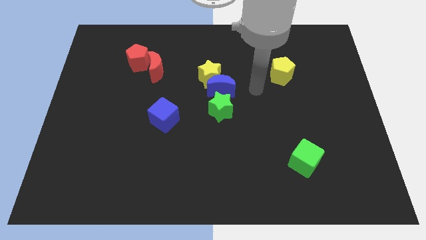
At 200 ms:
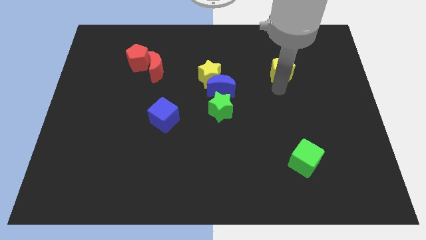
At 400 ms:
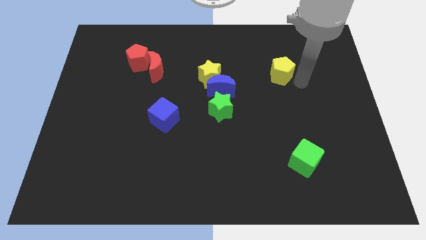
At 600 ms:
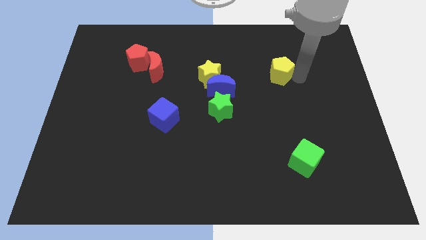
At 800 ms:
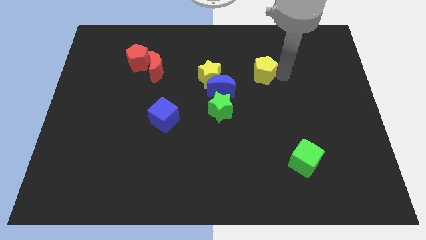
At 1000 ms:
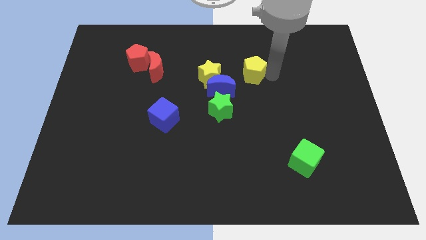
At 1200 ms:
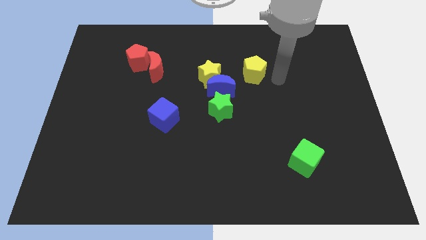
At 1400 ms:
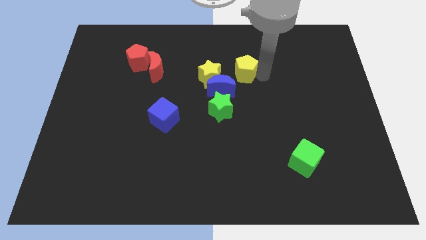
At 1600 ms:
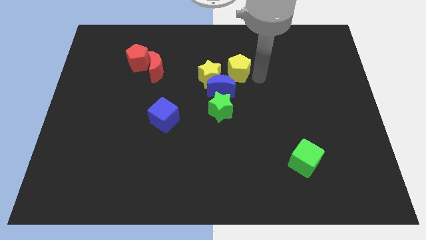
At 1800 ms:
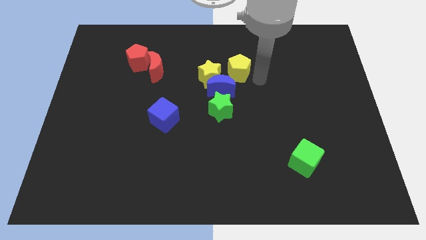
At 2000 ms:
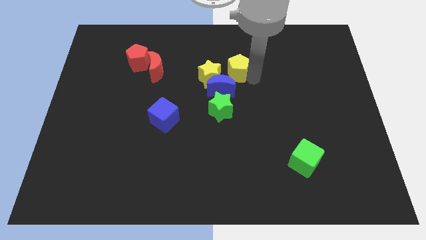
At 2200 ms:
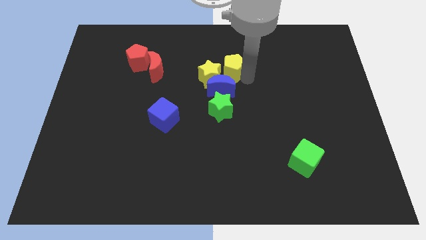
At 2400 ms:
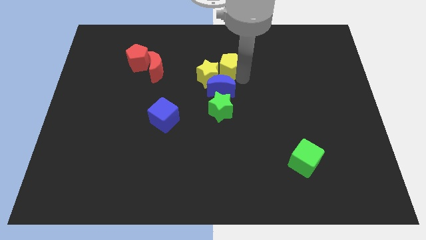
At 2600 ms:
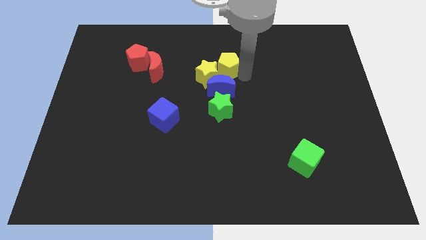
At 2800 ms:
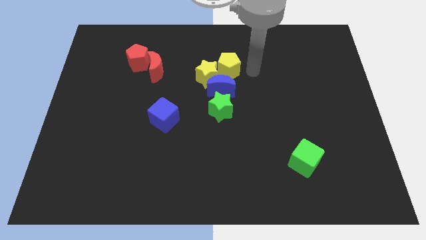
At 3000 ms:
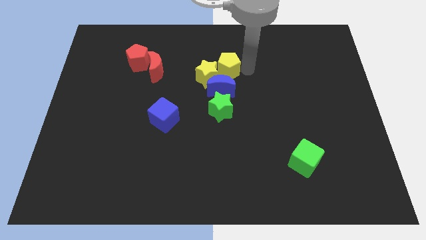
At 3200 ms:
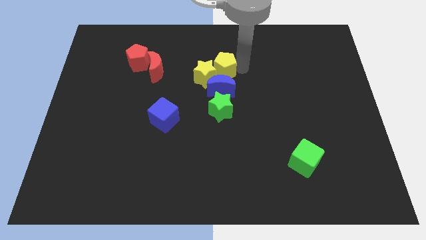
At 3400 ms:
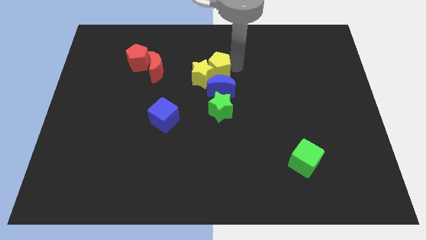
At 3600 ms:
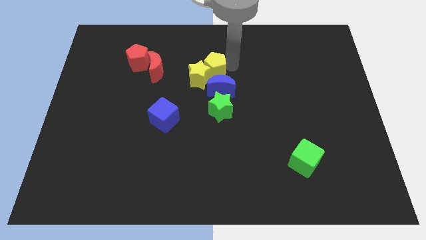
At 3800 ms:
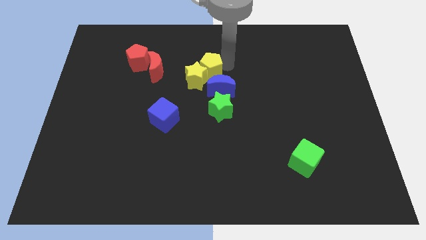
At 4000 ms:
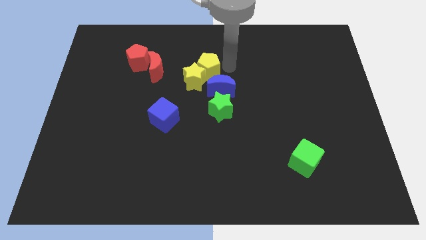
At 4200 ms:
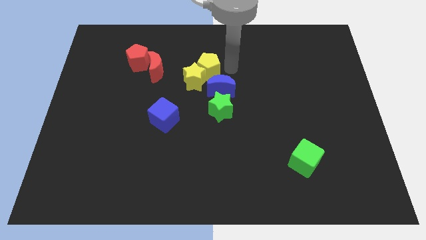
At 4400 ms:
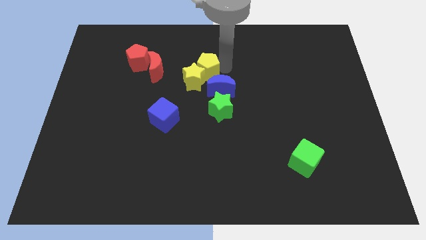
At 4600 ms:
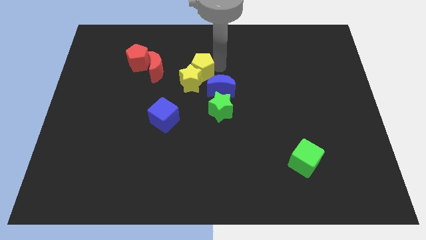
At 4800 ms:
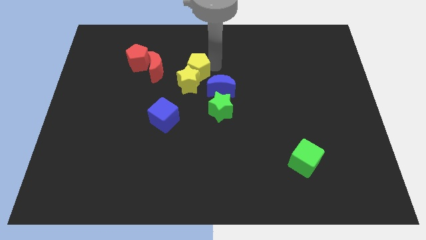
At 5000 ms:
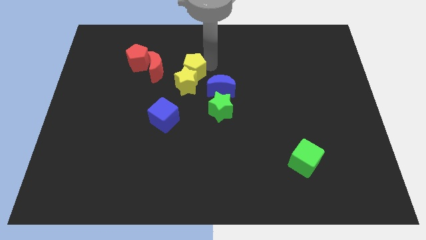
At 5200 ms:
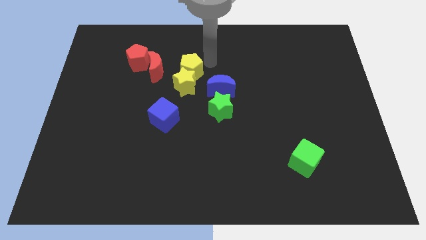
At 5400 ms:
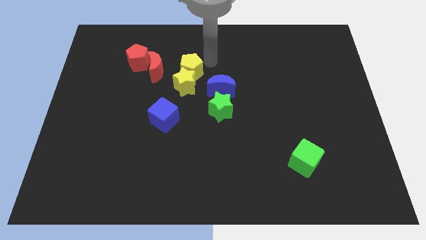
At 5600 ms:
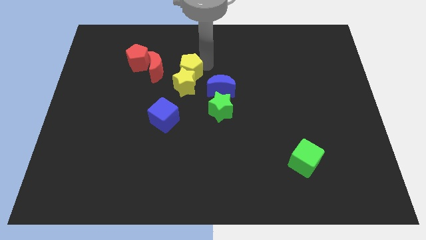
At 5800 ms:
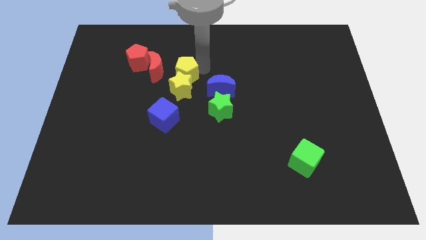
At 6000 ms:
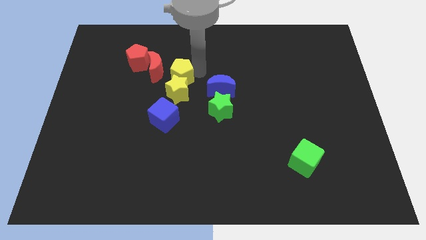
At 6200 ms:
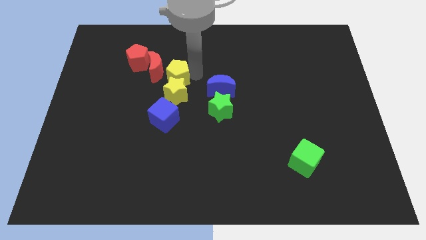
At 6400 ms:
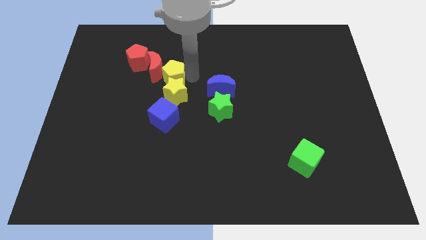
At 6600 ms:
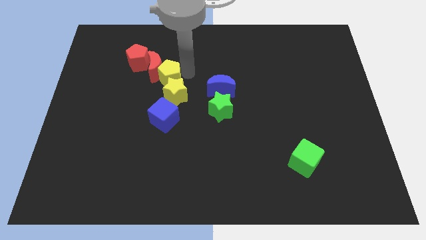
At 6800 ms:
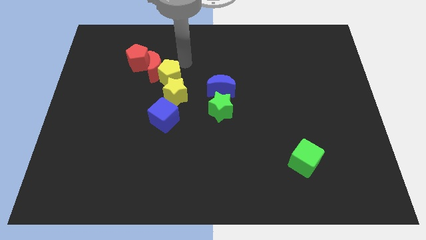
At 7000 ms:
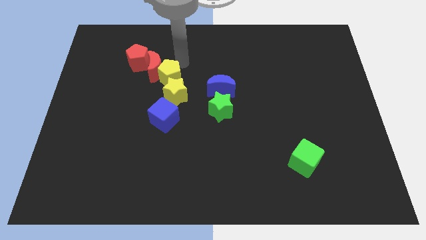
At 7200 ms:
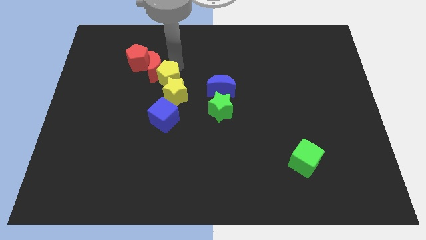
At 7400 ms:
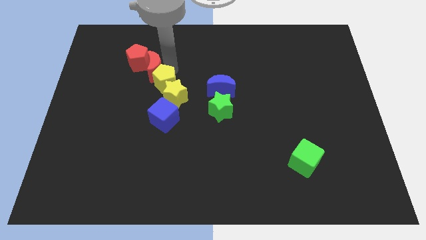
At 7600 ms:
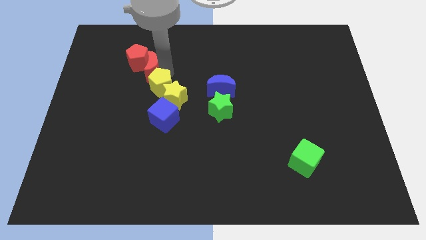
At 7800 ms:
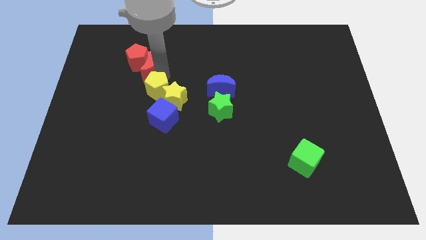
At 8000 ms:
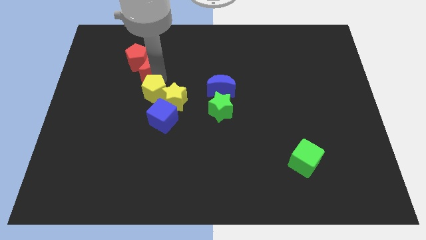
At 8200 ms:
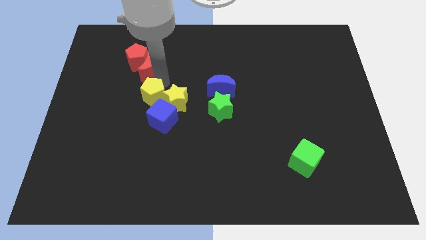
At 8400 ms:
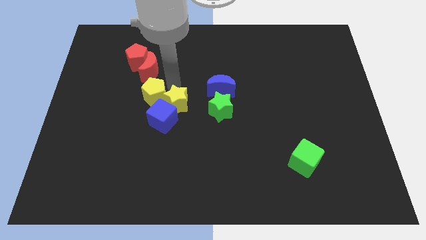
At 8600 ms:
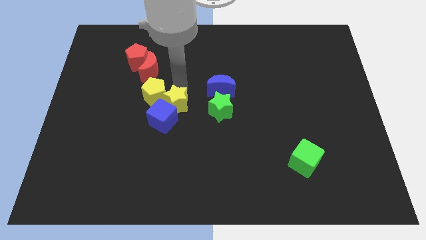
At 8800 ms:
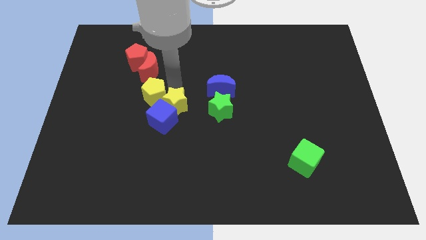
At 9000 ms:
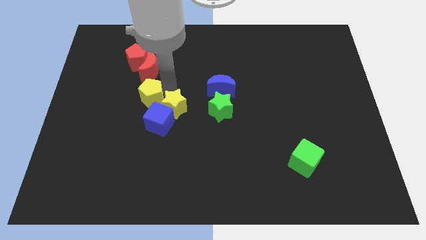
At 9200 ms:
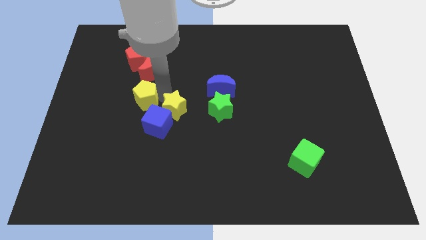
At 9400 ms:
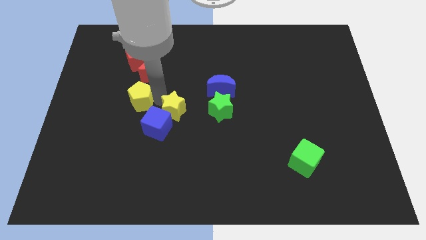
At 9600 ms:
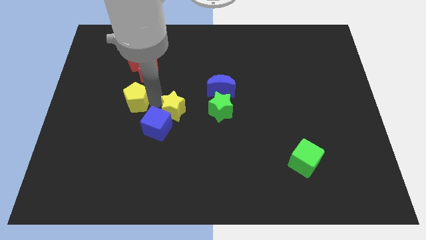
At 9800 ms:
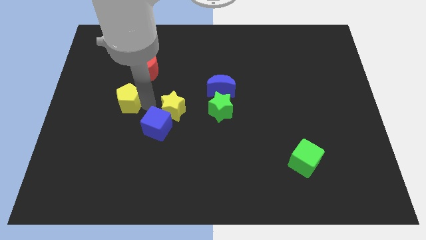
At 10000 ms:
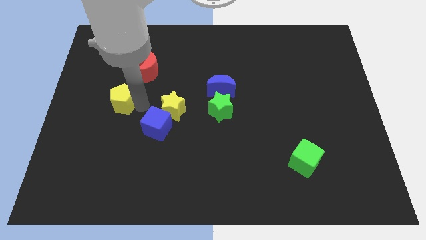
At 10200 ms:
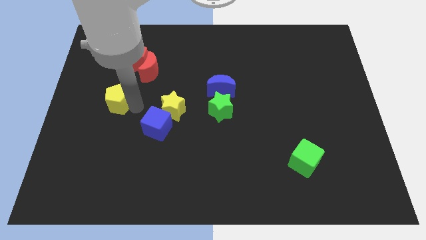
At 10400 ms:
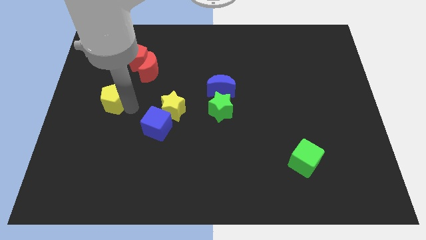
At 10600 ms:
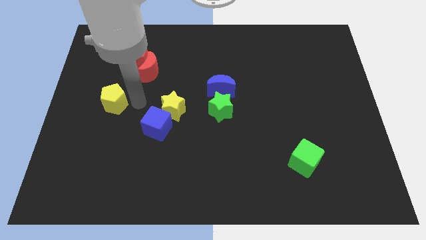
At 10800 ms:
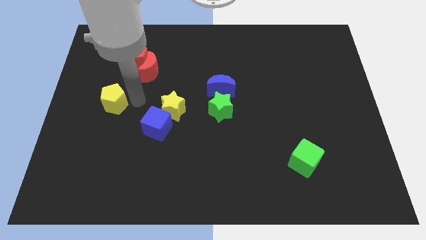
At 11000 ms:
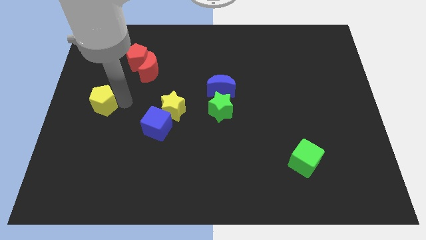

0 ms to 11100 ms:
push the yellow pentagon to the left side

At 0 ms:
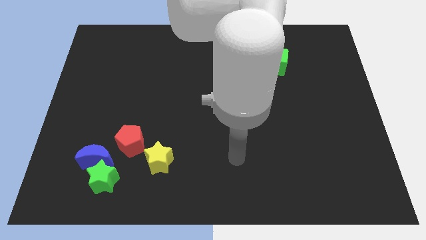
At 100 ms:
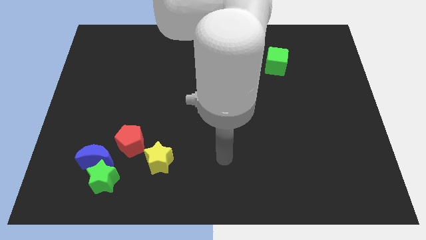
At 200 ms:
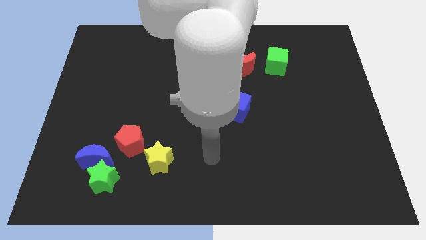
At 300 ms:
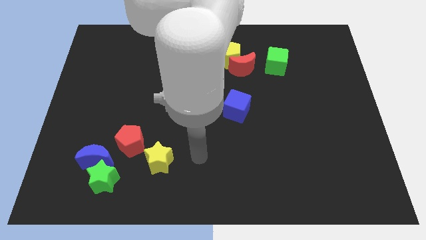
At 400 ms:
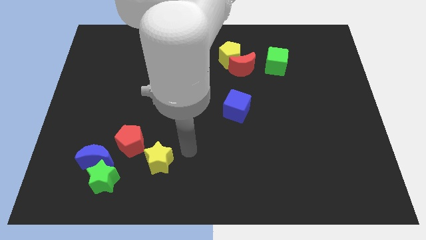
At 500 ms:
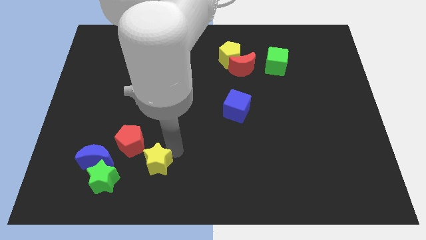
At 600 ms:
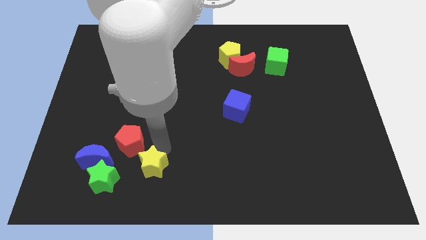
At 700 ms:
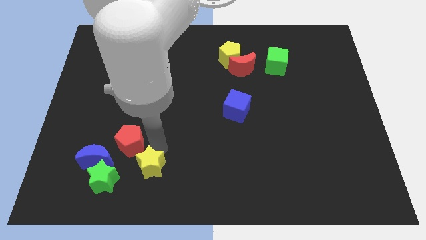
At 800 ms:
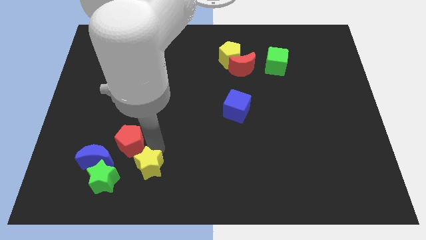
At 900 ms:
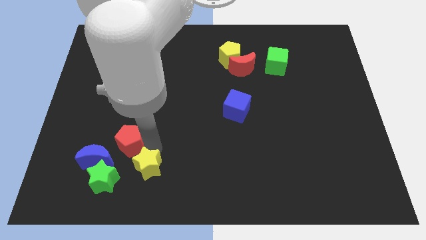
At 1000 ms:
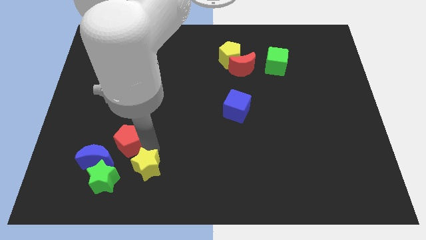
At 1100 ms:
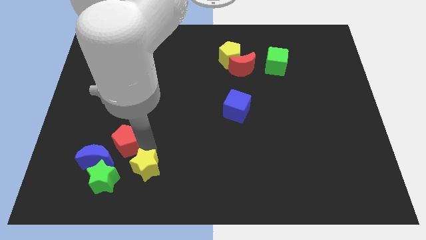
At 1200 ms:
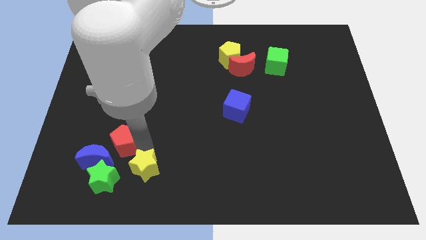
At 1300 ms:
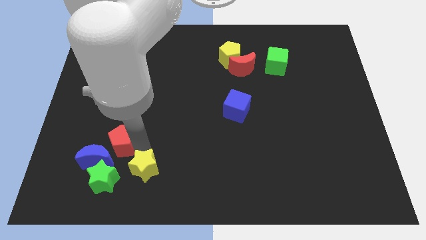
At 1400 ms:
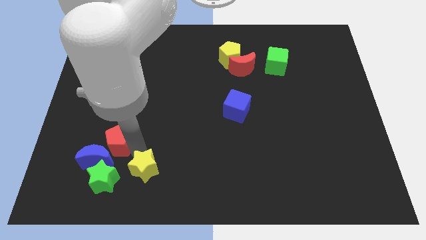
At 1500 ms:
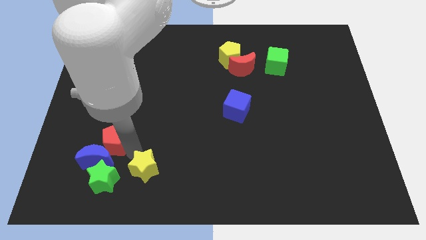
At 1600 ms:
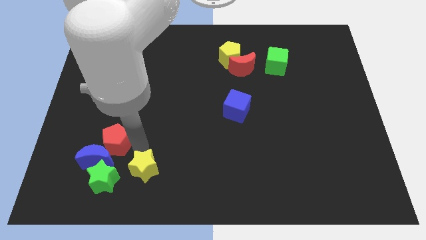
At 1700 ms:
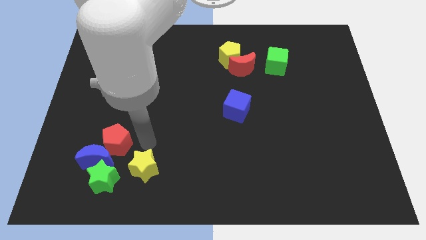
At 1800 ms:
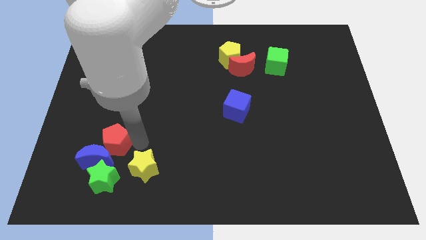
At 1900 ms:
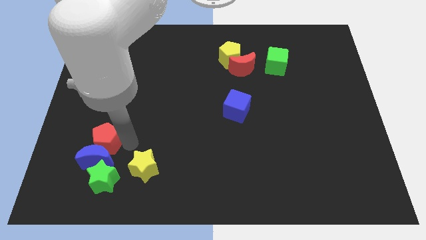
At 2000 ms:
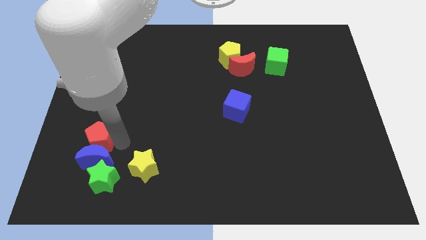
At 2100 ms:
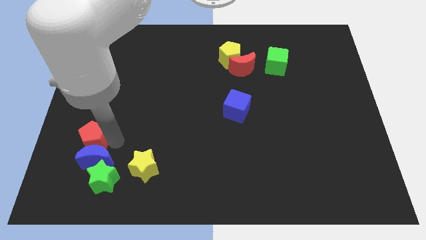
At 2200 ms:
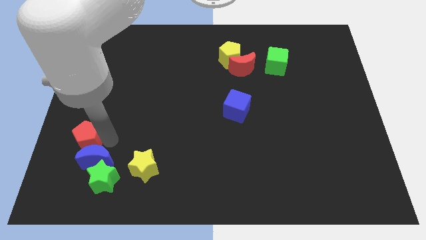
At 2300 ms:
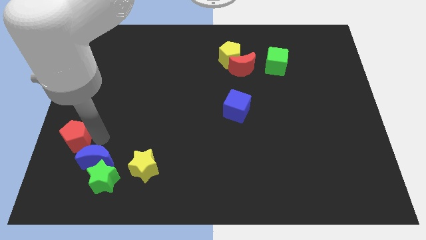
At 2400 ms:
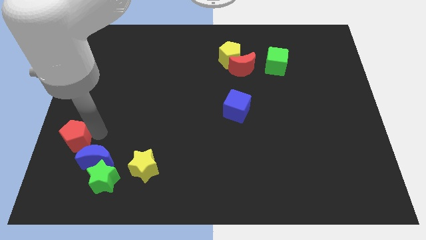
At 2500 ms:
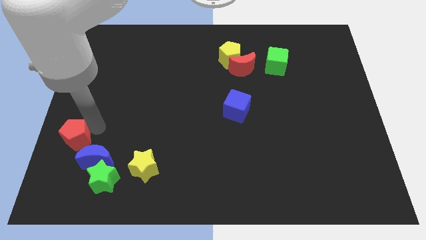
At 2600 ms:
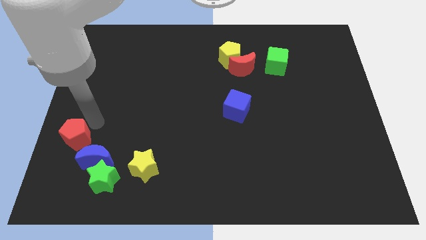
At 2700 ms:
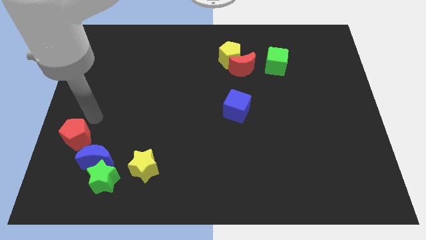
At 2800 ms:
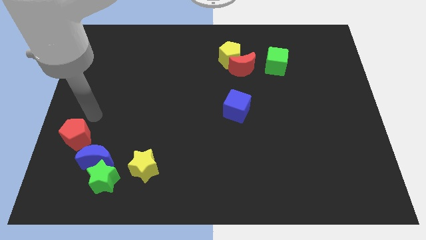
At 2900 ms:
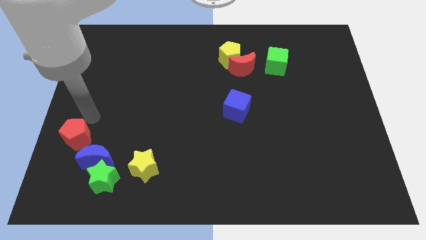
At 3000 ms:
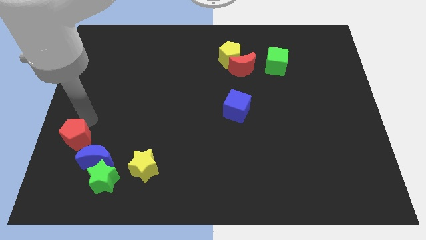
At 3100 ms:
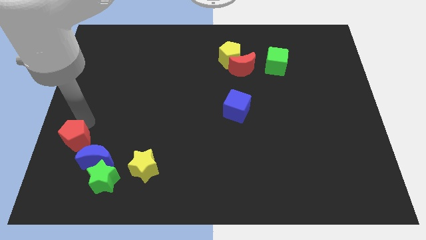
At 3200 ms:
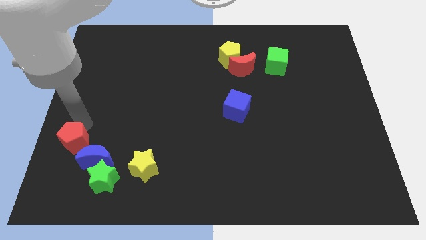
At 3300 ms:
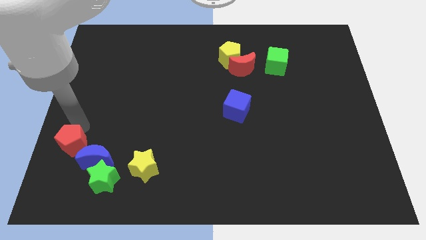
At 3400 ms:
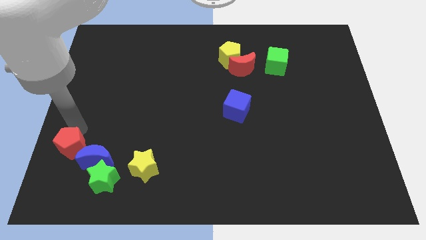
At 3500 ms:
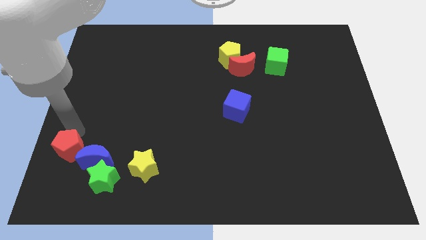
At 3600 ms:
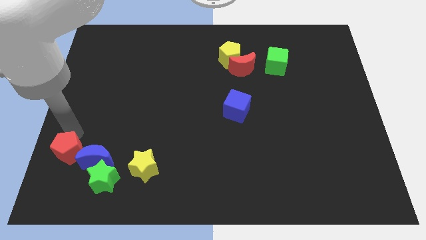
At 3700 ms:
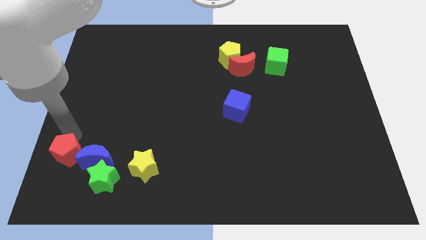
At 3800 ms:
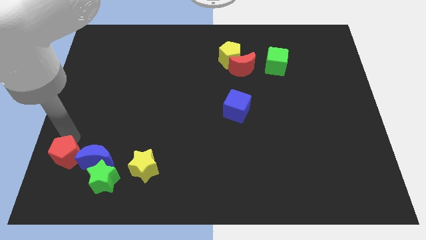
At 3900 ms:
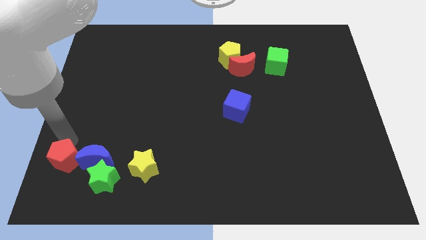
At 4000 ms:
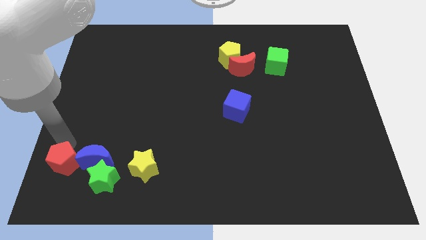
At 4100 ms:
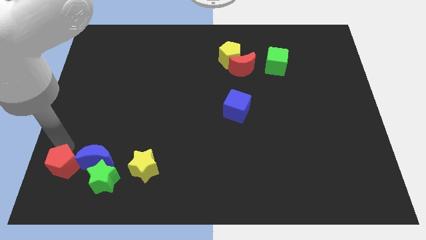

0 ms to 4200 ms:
move the red pentagon to the bottom left corner
